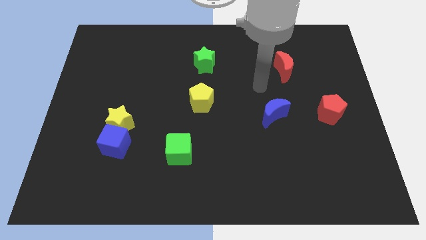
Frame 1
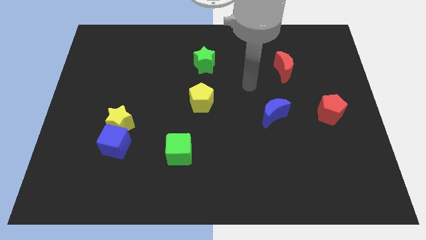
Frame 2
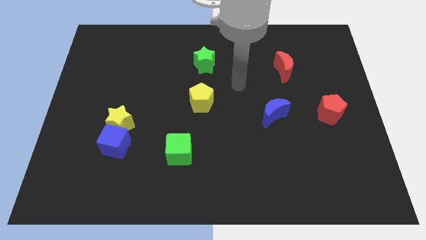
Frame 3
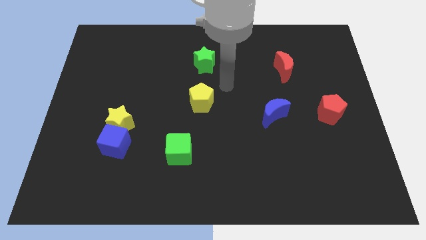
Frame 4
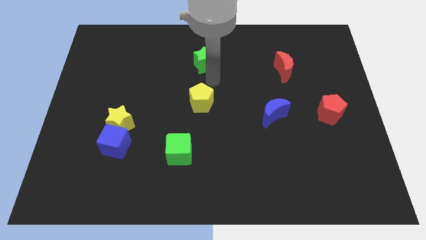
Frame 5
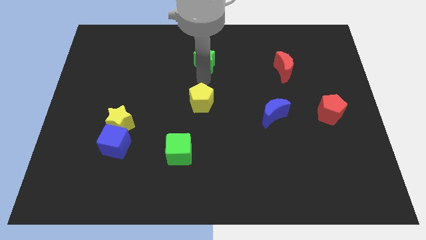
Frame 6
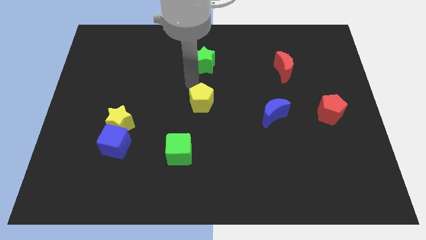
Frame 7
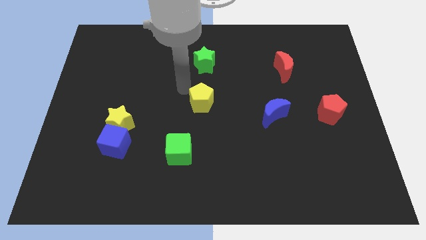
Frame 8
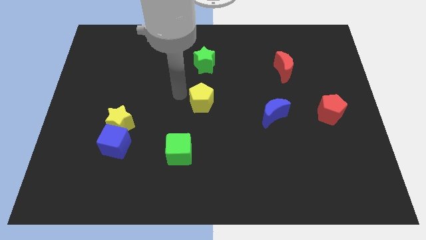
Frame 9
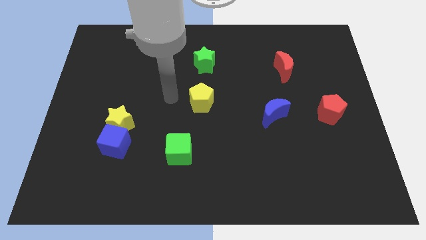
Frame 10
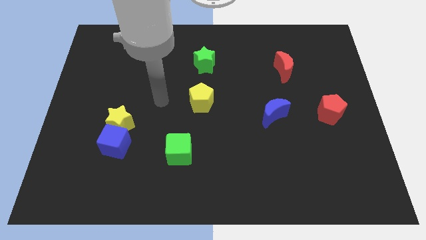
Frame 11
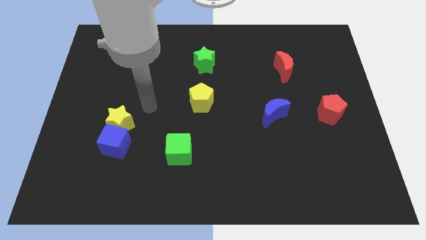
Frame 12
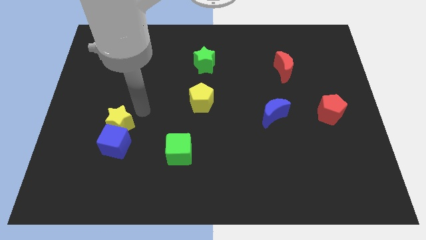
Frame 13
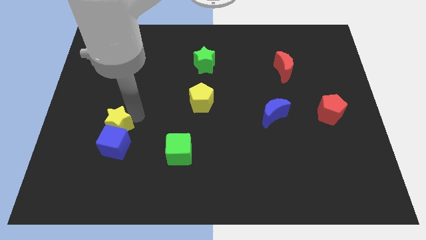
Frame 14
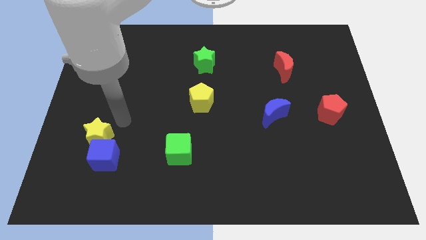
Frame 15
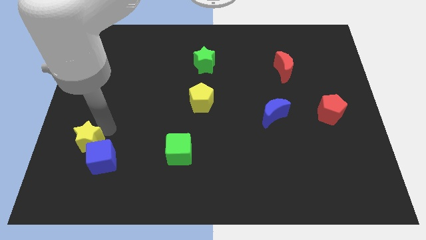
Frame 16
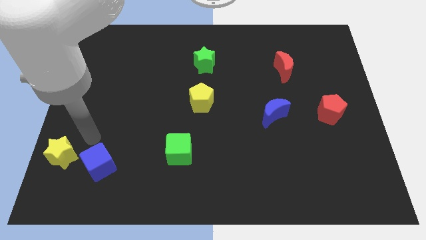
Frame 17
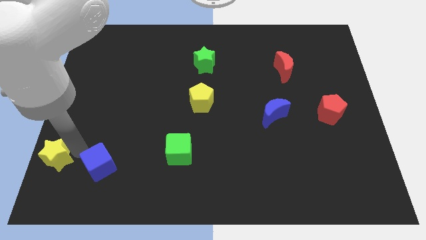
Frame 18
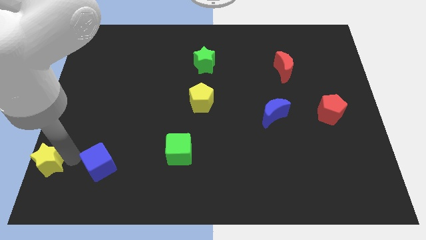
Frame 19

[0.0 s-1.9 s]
pull the blue cube apart from the yellow star

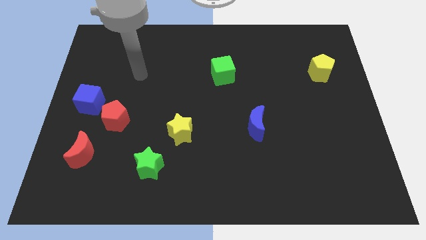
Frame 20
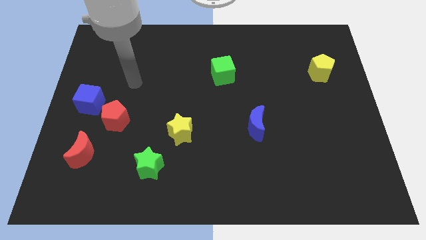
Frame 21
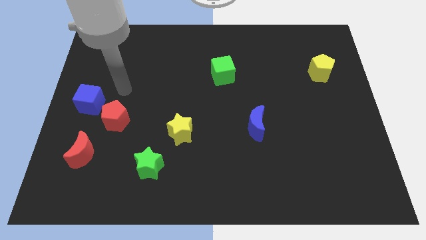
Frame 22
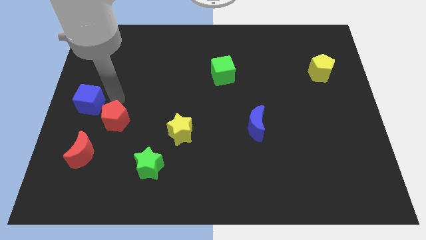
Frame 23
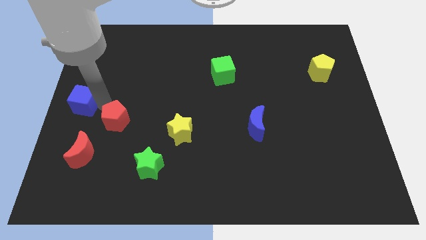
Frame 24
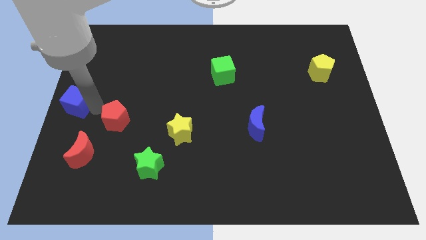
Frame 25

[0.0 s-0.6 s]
move the red pentagon away from the blue cube

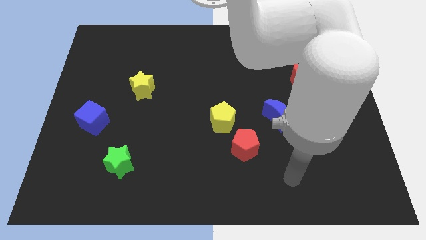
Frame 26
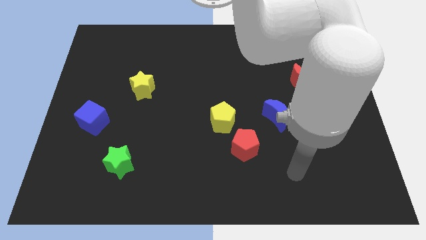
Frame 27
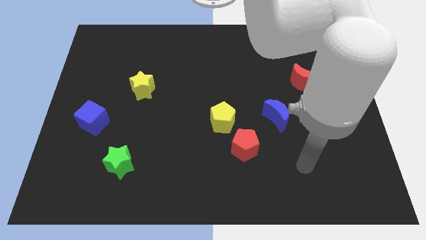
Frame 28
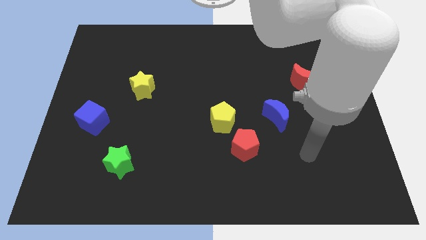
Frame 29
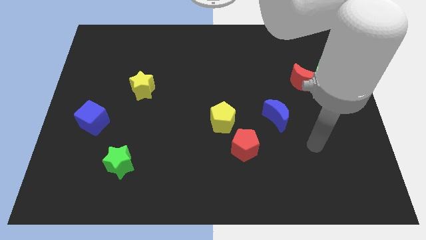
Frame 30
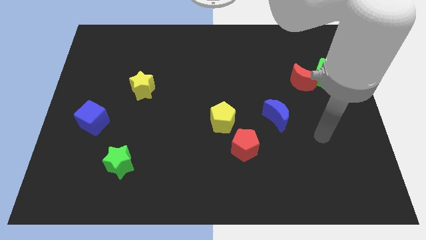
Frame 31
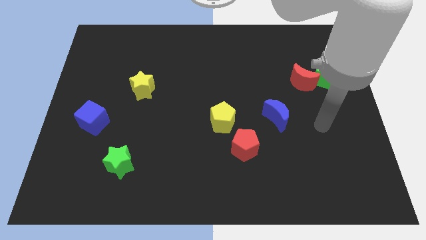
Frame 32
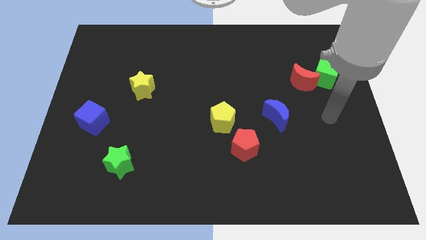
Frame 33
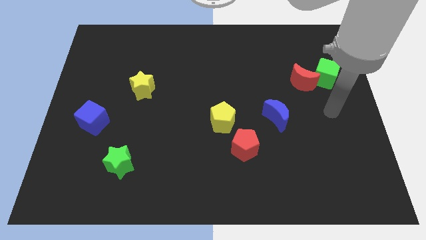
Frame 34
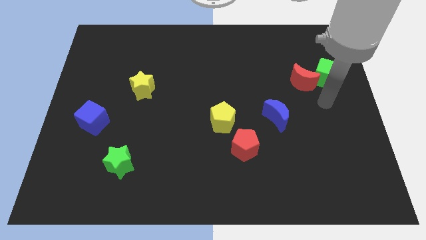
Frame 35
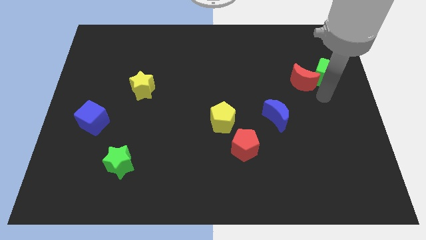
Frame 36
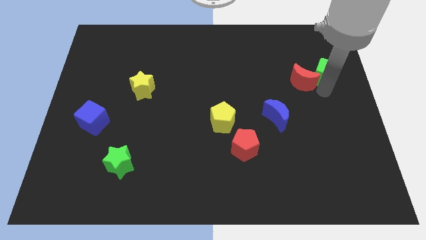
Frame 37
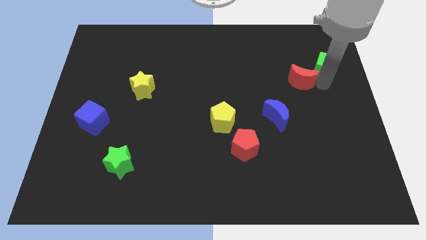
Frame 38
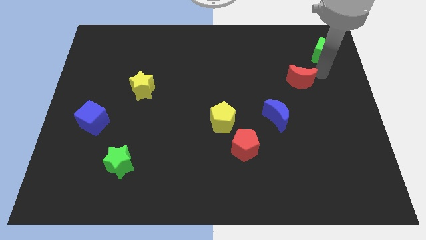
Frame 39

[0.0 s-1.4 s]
pull the red moon apart from the green cube

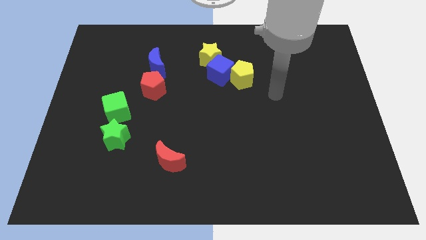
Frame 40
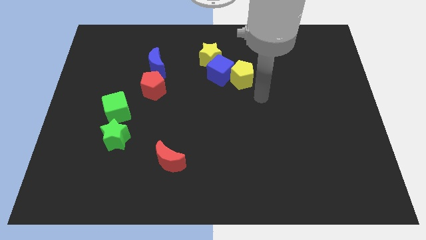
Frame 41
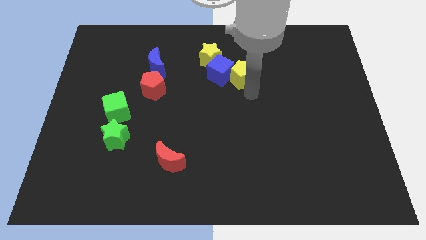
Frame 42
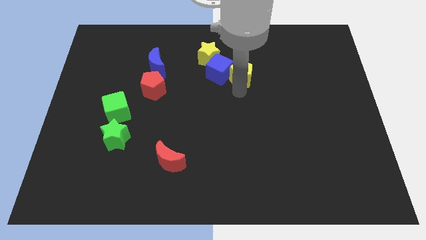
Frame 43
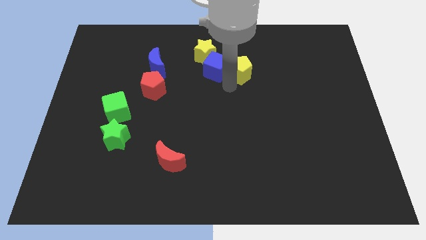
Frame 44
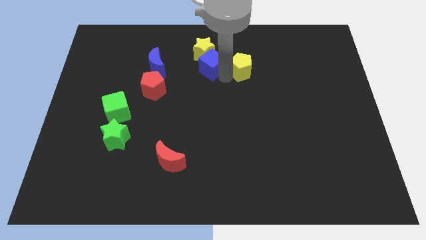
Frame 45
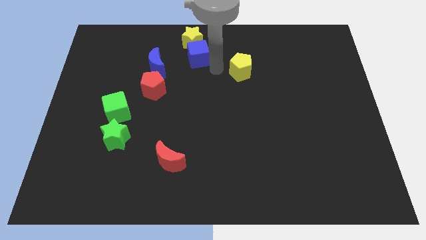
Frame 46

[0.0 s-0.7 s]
pull the yellow pentagon apart from the blue cube

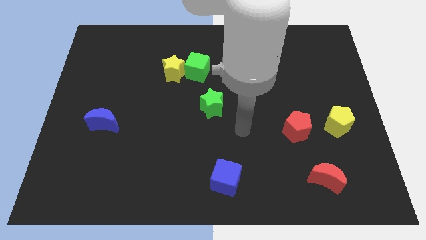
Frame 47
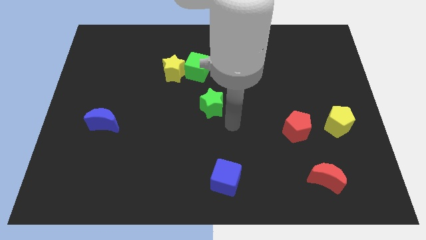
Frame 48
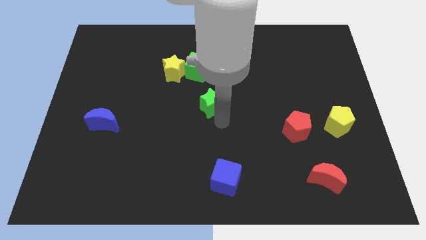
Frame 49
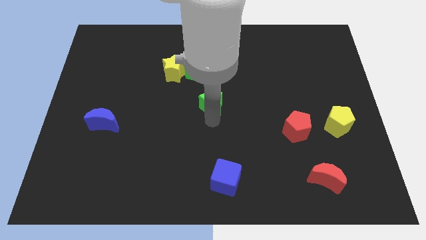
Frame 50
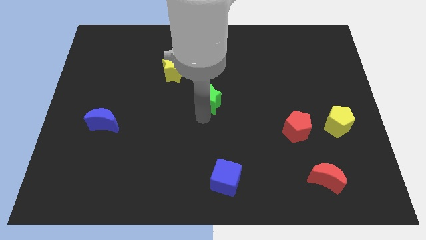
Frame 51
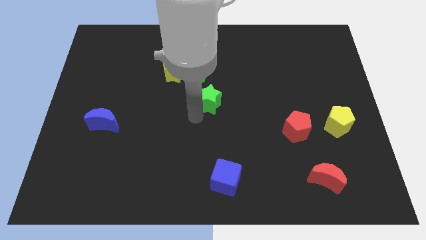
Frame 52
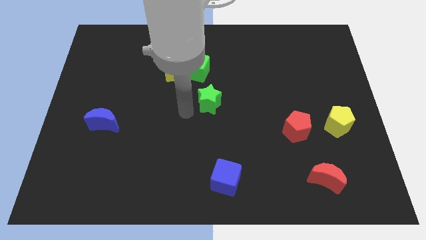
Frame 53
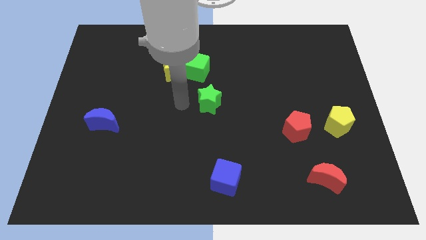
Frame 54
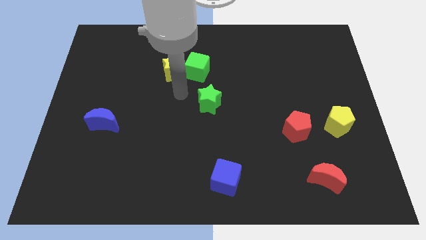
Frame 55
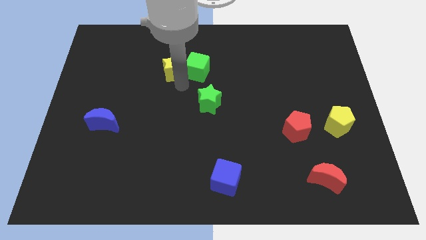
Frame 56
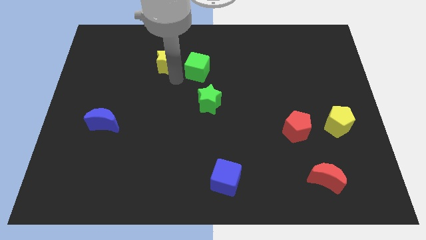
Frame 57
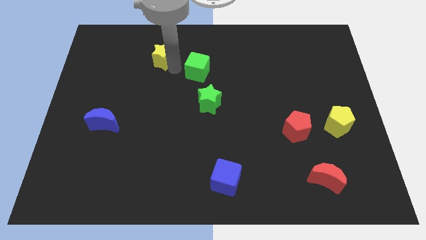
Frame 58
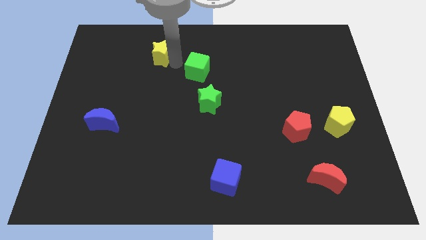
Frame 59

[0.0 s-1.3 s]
pull the green cube apart from the yellow star

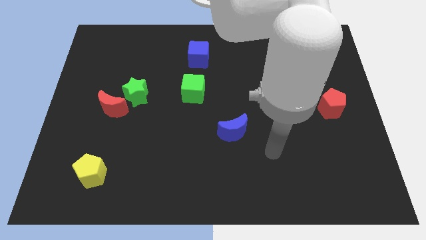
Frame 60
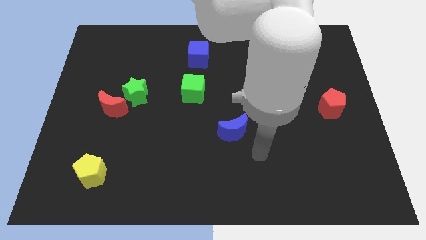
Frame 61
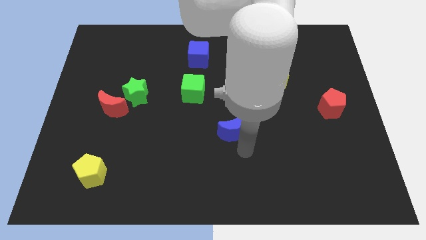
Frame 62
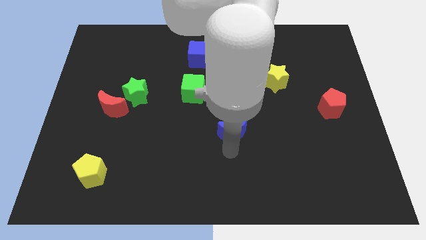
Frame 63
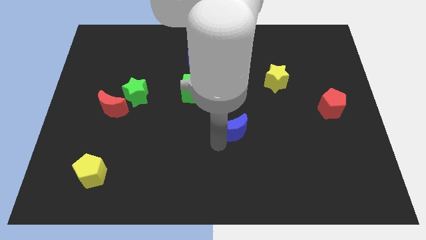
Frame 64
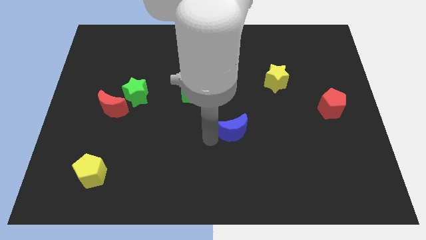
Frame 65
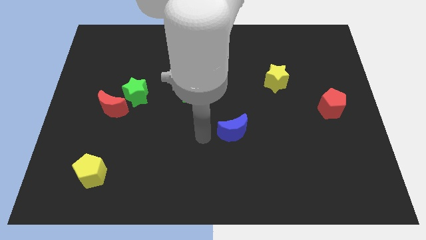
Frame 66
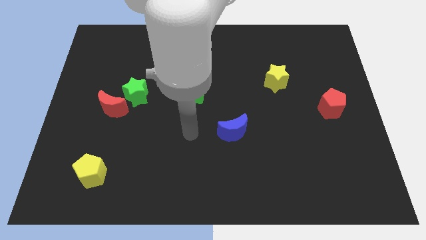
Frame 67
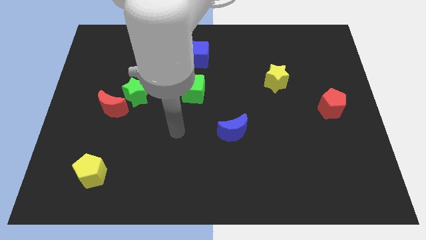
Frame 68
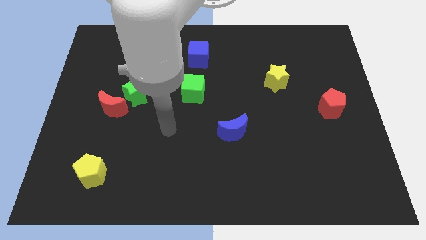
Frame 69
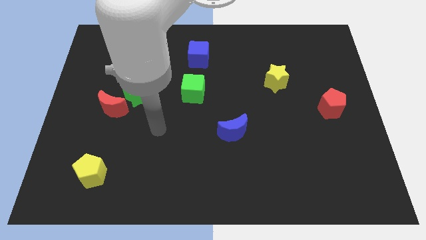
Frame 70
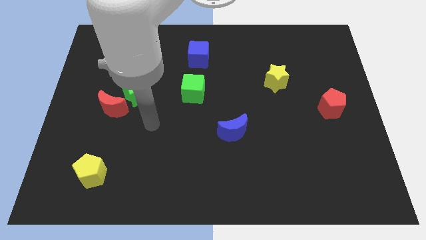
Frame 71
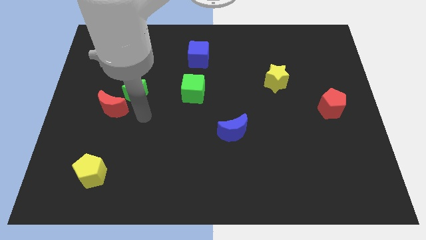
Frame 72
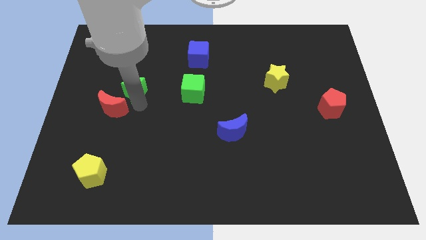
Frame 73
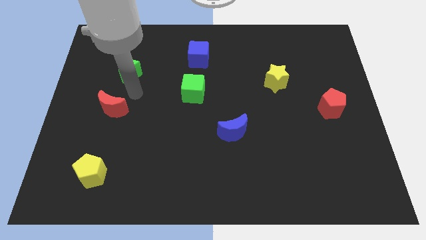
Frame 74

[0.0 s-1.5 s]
move the red moon away from the green star

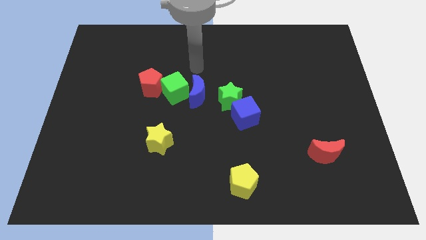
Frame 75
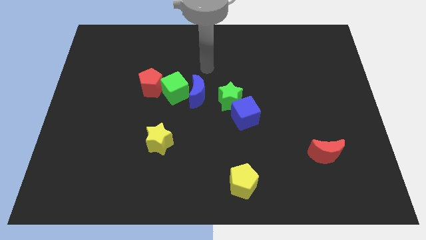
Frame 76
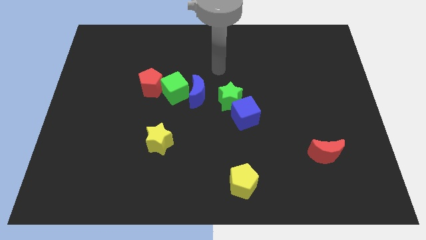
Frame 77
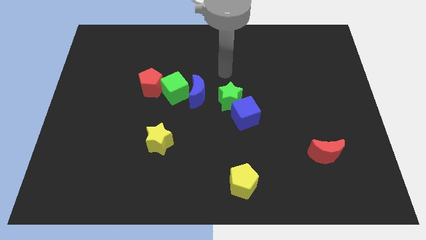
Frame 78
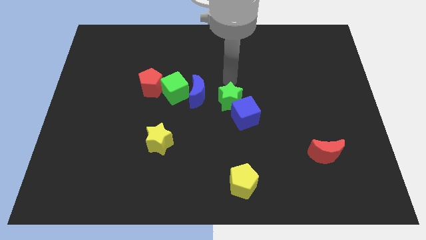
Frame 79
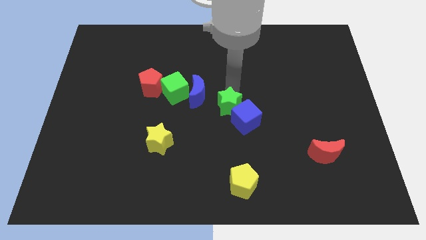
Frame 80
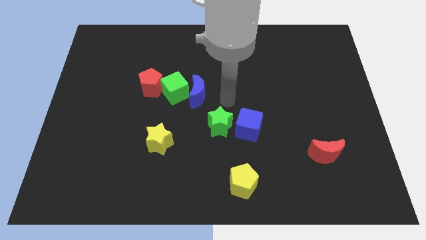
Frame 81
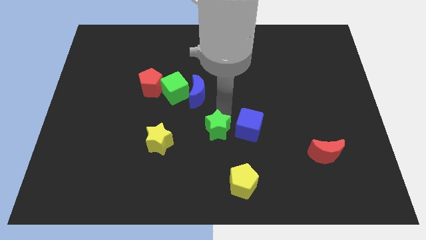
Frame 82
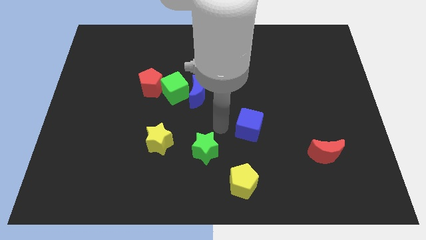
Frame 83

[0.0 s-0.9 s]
move the blue cube away from the green star

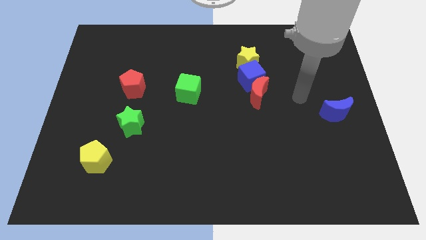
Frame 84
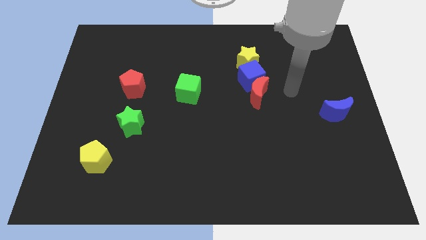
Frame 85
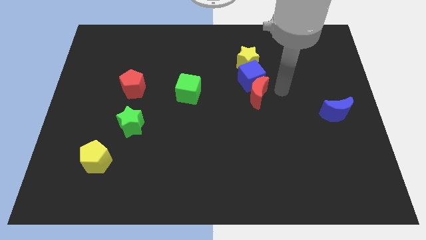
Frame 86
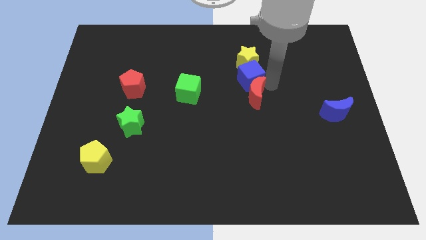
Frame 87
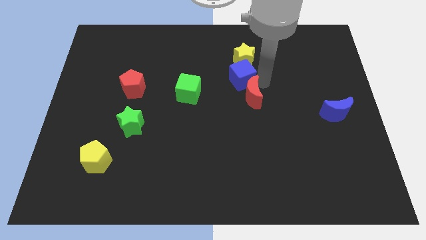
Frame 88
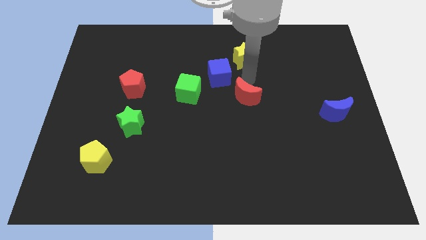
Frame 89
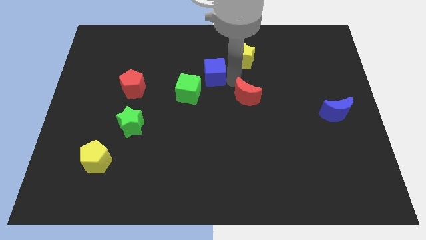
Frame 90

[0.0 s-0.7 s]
pull the red moon apart from the blue cube

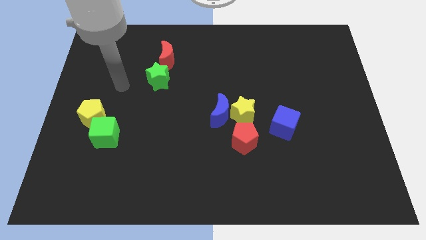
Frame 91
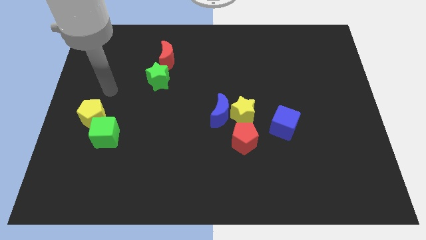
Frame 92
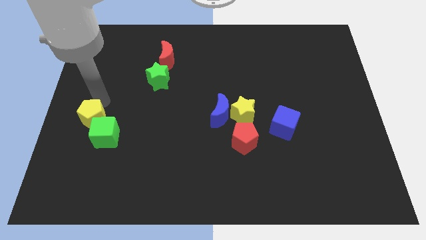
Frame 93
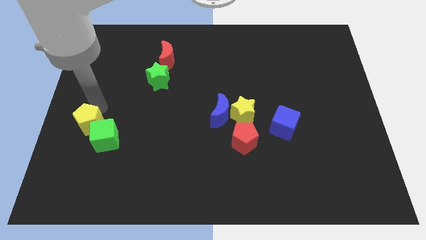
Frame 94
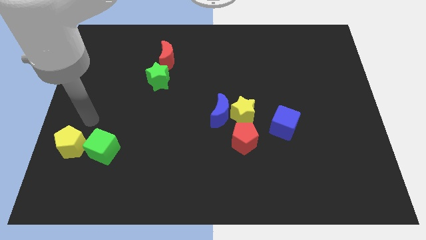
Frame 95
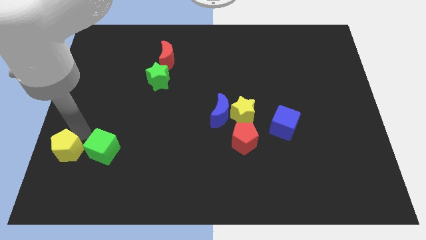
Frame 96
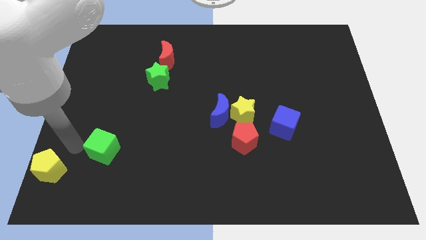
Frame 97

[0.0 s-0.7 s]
move the green cube away from the yellow pentagon
